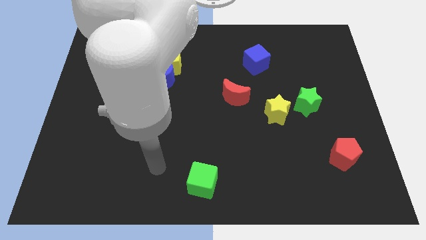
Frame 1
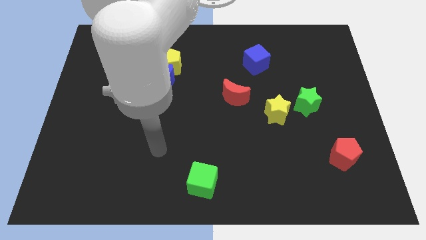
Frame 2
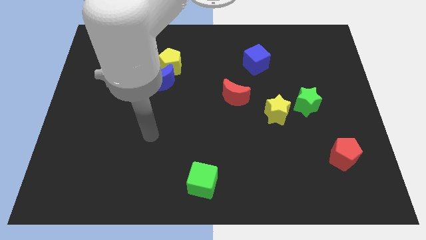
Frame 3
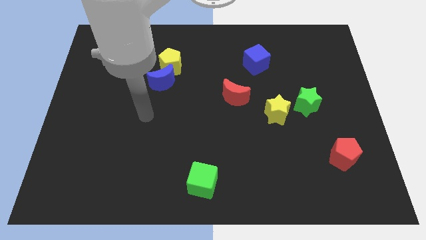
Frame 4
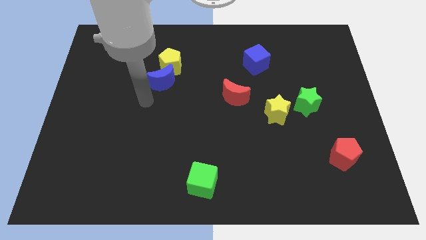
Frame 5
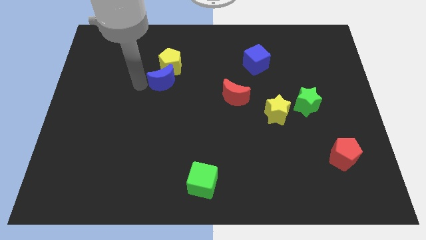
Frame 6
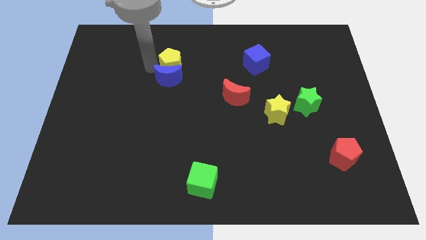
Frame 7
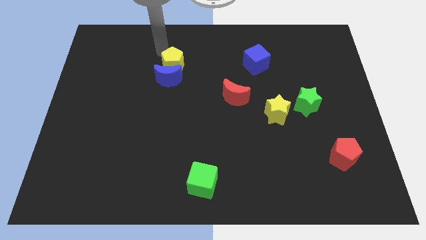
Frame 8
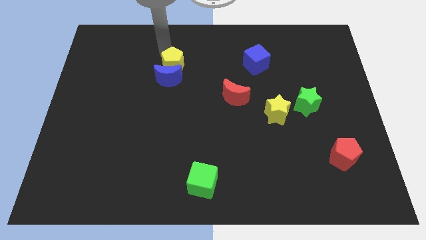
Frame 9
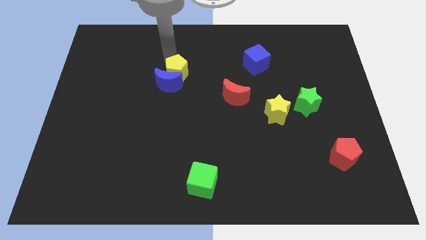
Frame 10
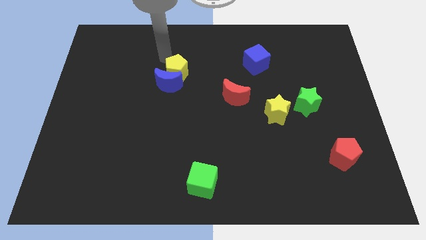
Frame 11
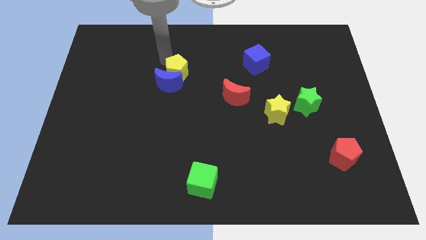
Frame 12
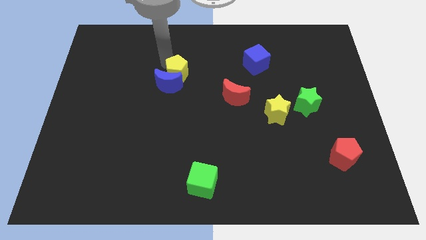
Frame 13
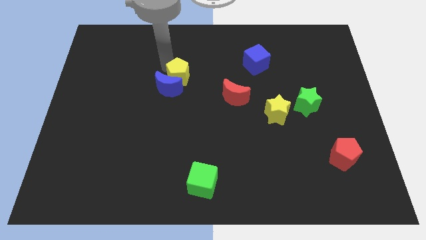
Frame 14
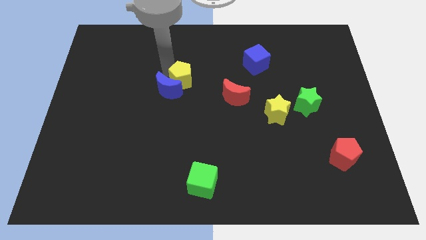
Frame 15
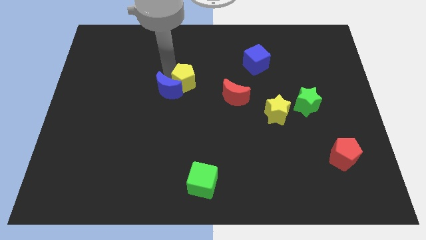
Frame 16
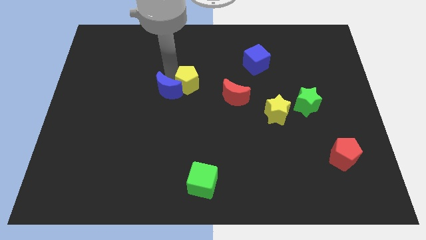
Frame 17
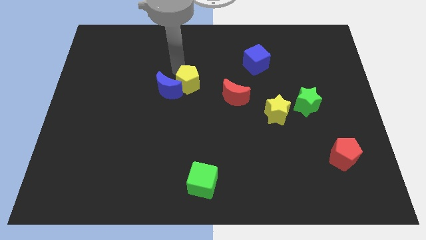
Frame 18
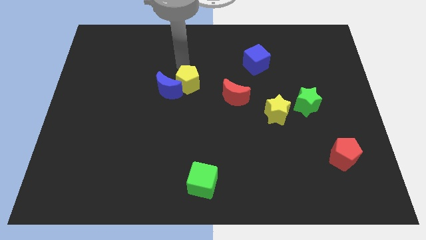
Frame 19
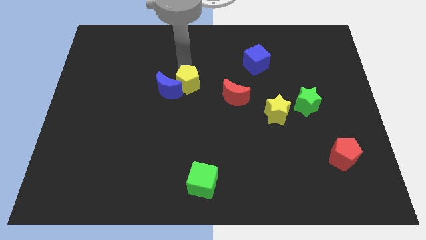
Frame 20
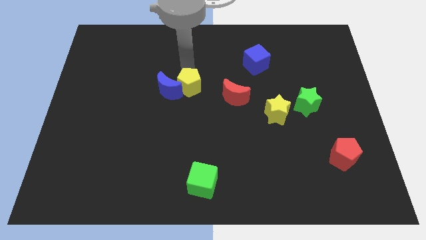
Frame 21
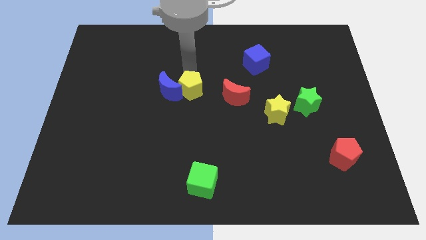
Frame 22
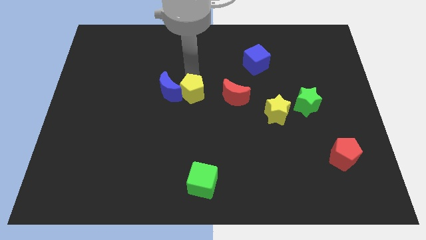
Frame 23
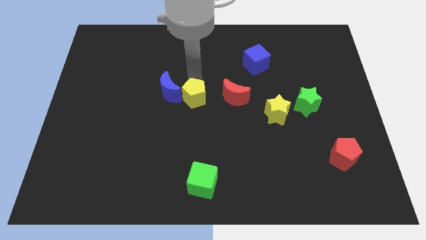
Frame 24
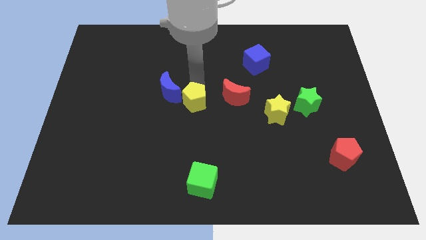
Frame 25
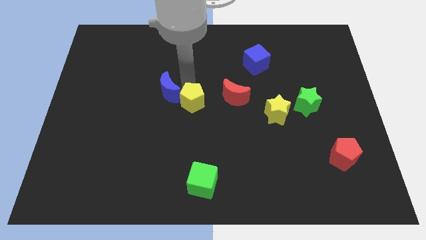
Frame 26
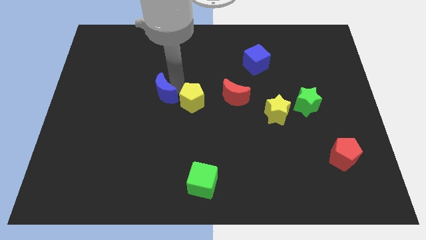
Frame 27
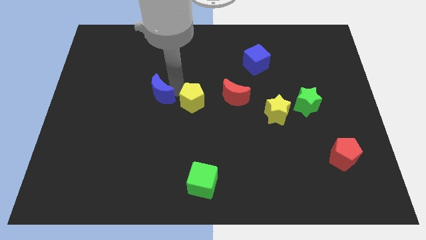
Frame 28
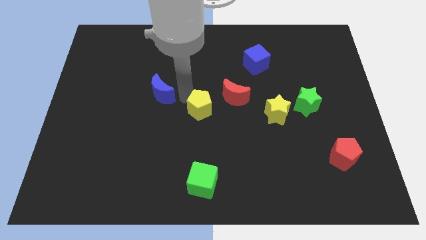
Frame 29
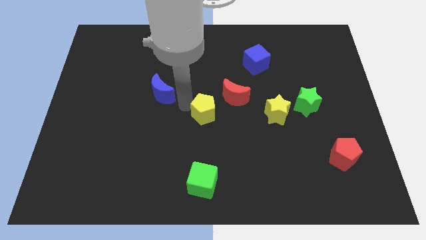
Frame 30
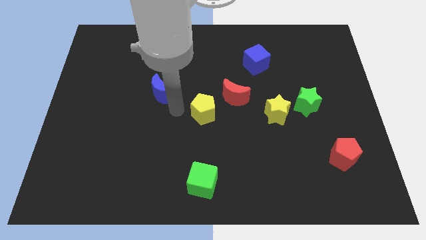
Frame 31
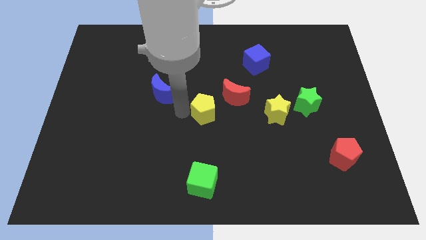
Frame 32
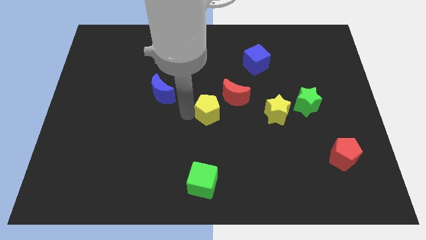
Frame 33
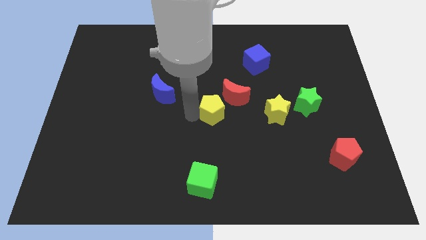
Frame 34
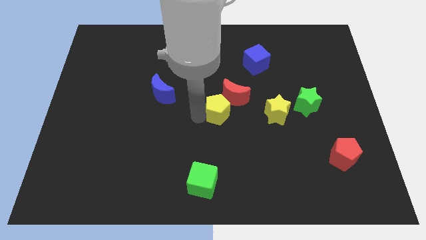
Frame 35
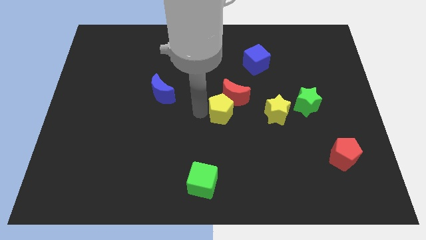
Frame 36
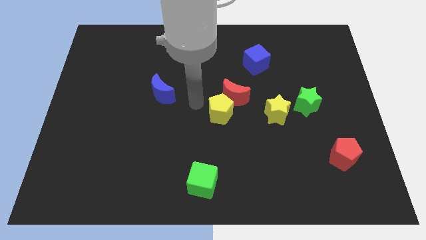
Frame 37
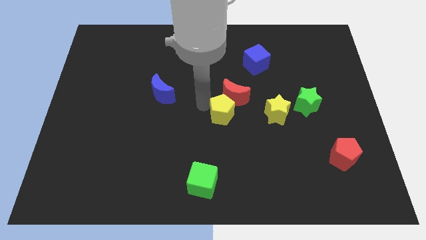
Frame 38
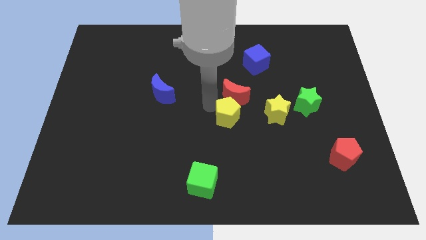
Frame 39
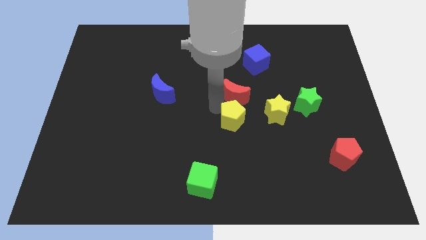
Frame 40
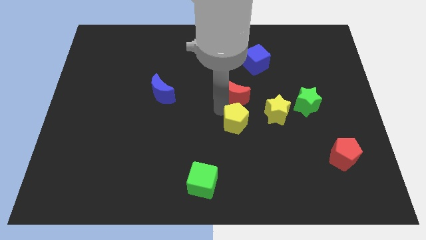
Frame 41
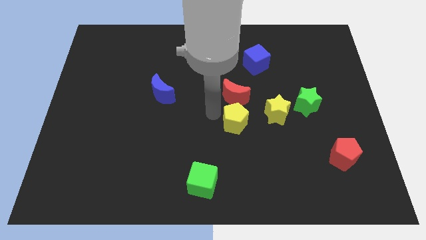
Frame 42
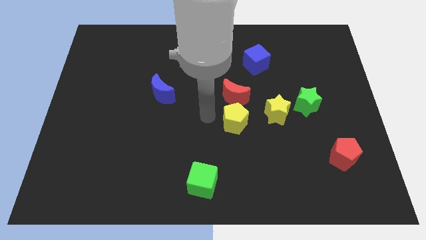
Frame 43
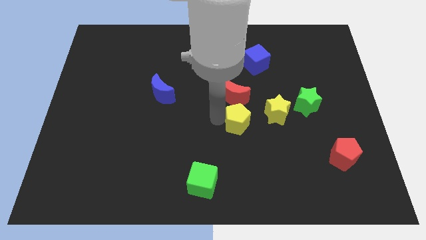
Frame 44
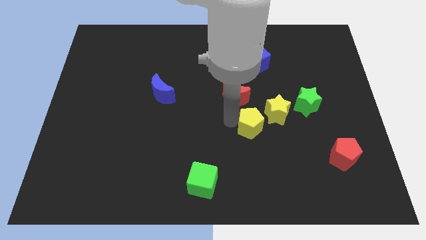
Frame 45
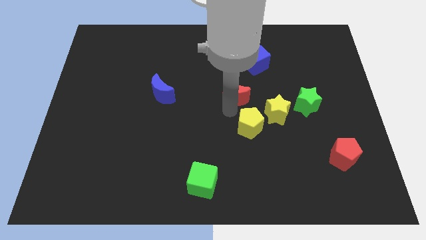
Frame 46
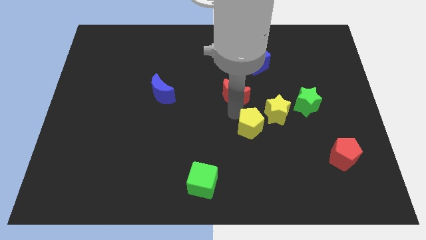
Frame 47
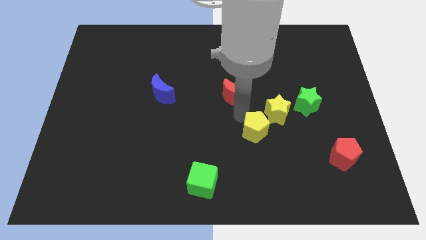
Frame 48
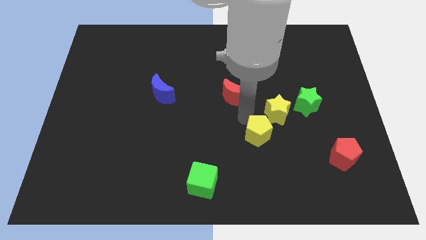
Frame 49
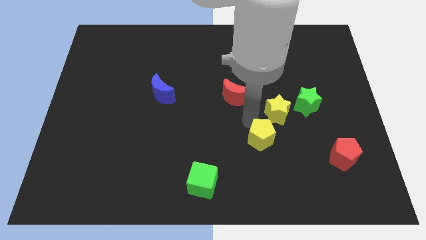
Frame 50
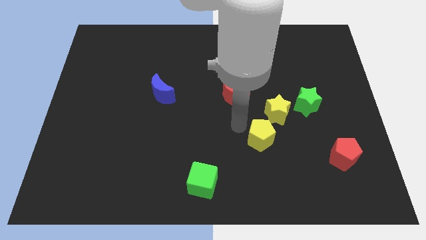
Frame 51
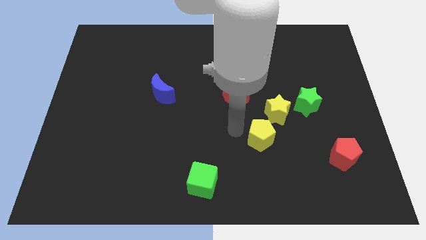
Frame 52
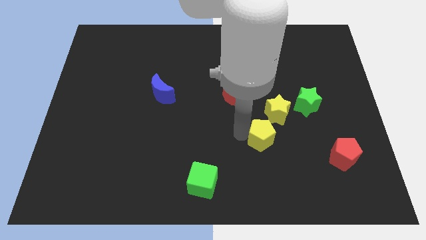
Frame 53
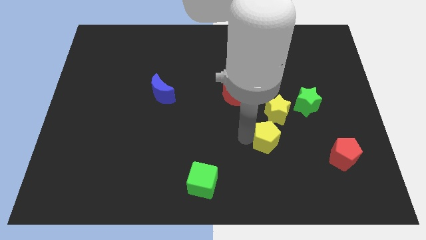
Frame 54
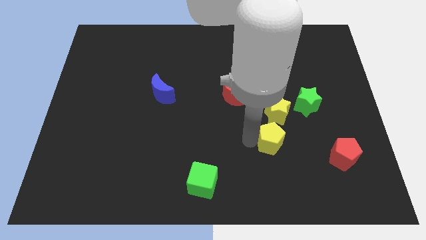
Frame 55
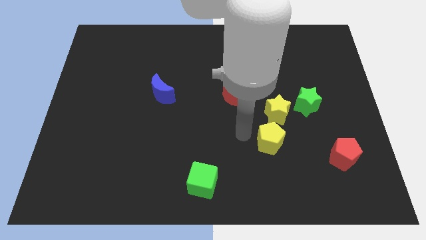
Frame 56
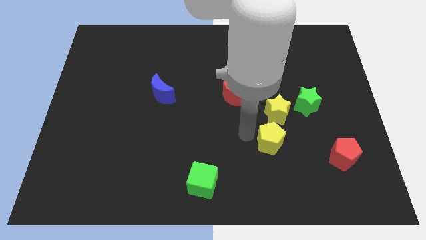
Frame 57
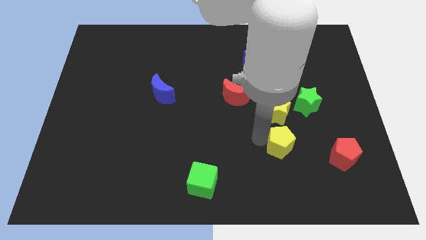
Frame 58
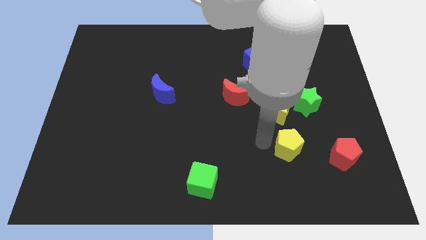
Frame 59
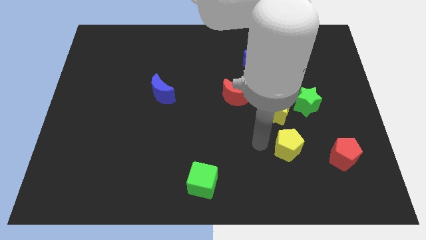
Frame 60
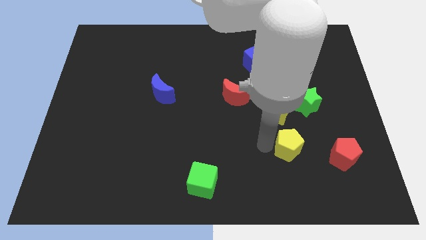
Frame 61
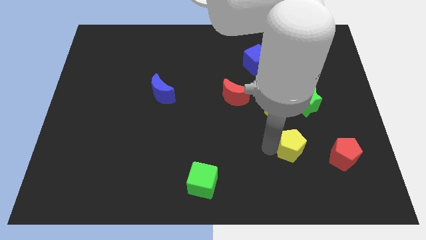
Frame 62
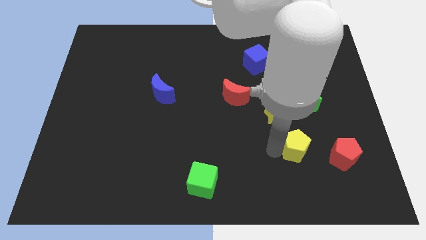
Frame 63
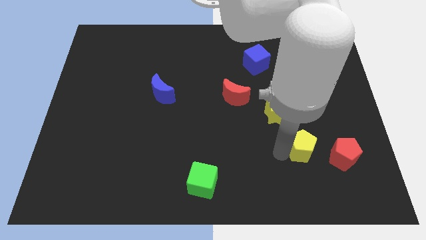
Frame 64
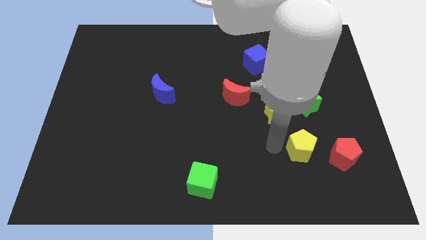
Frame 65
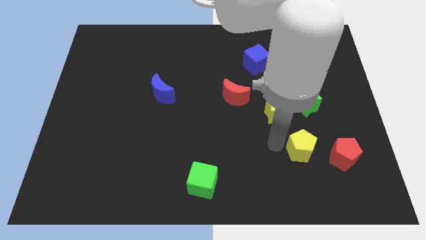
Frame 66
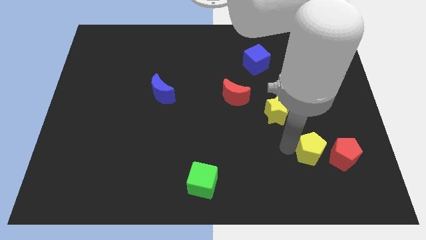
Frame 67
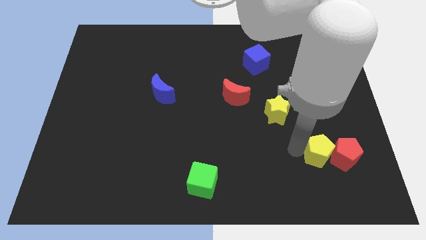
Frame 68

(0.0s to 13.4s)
slide the yellow pentagon towards the red pentagon

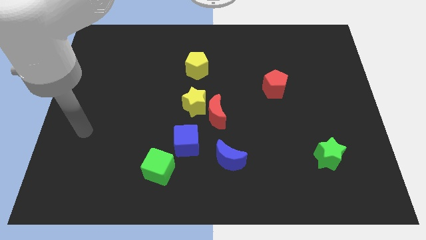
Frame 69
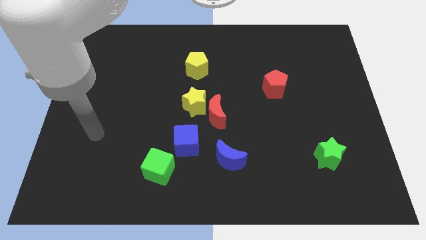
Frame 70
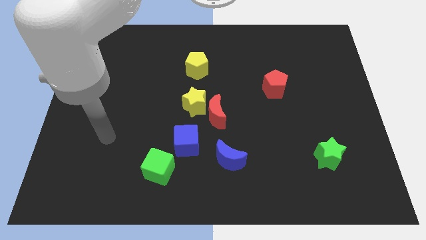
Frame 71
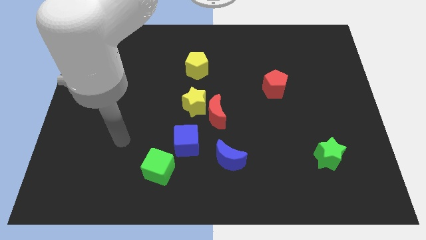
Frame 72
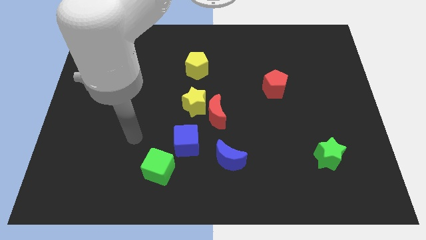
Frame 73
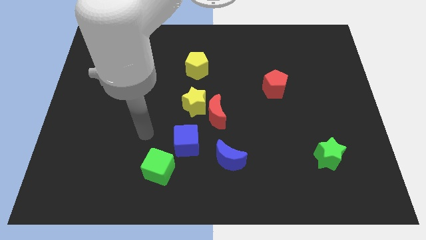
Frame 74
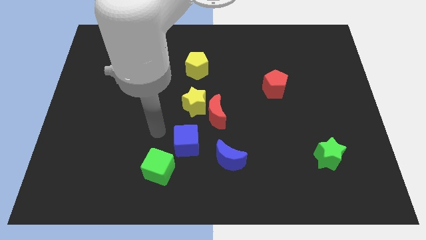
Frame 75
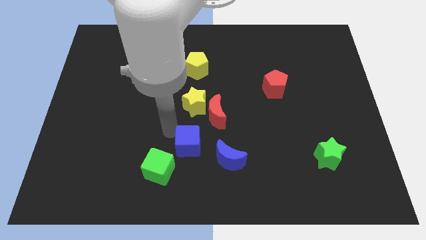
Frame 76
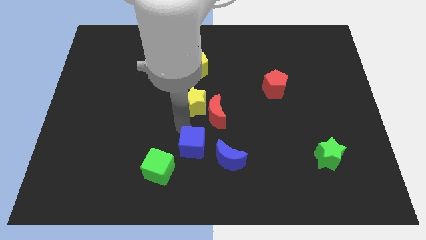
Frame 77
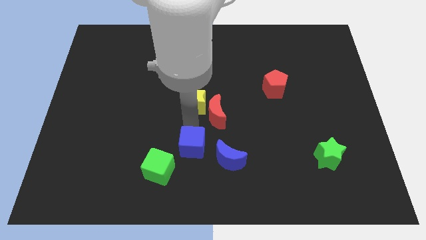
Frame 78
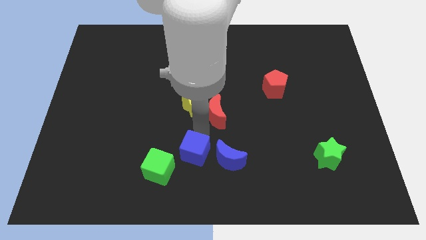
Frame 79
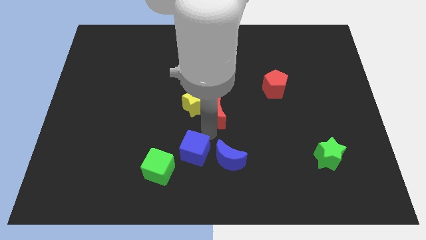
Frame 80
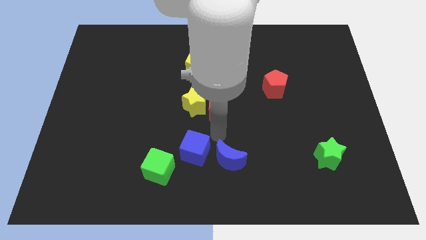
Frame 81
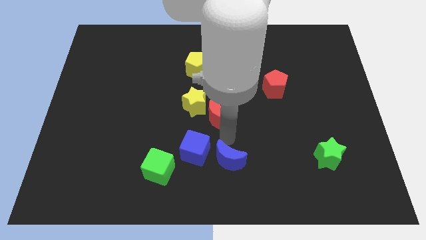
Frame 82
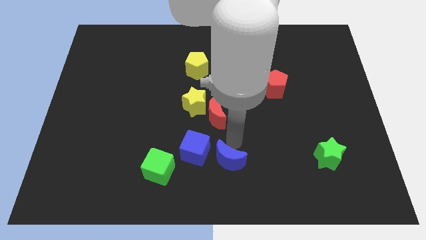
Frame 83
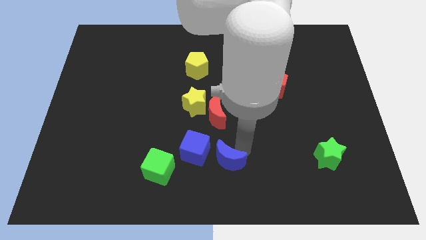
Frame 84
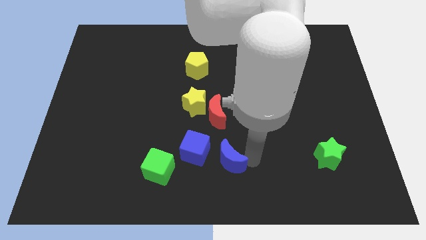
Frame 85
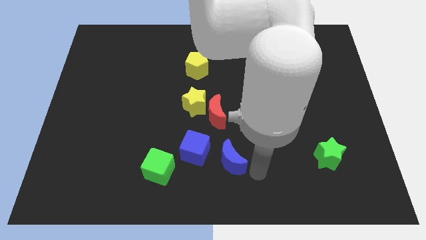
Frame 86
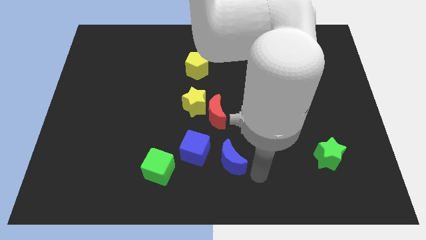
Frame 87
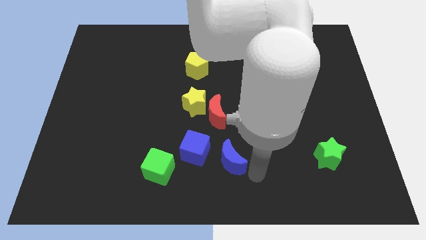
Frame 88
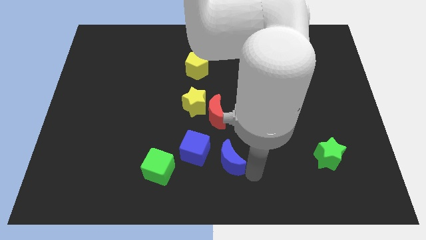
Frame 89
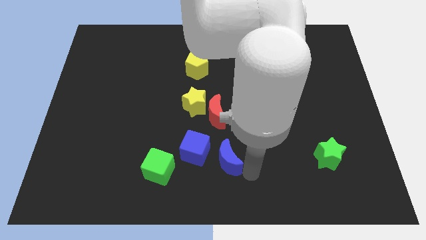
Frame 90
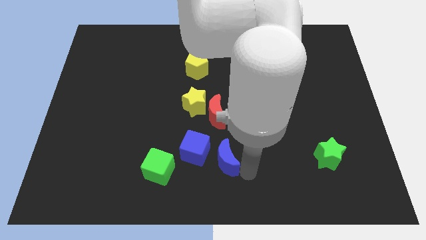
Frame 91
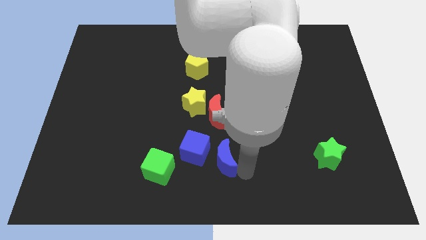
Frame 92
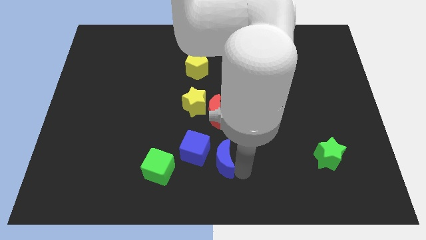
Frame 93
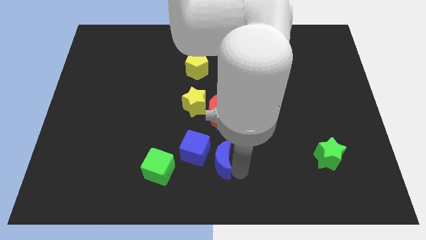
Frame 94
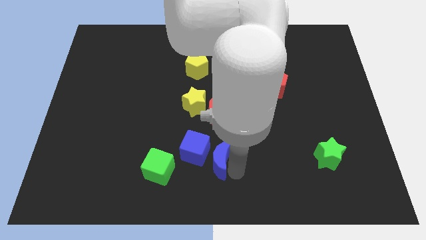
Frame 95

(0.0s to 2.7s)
move the blue moon close to the blue cube
